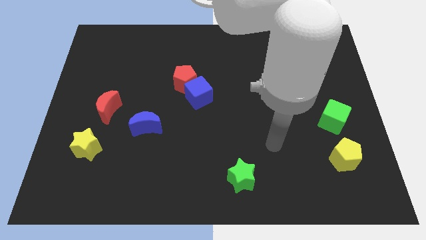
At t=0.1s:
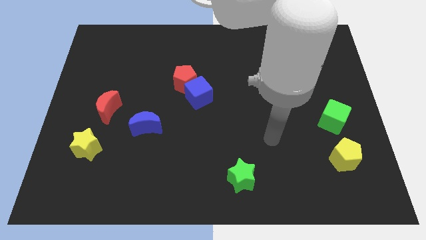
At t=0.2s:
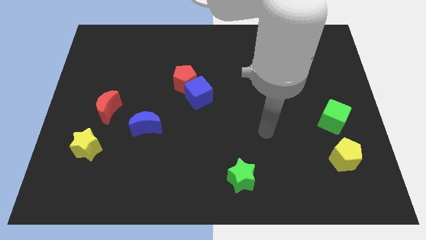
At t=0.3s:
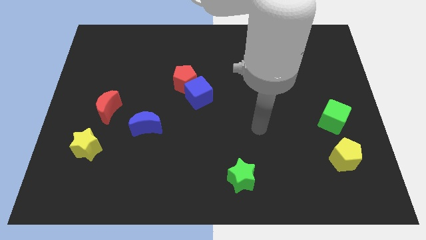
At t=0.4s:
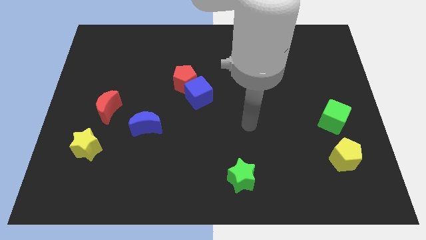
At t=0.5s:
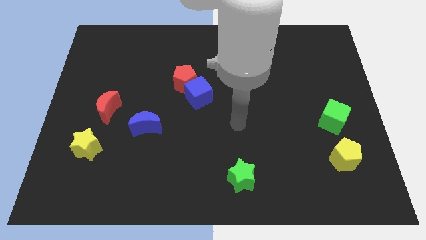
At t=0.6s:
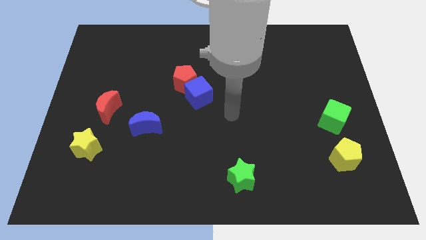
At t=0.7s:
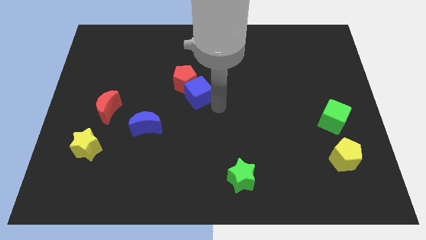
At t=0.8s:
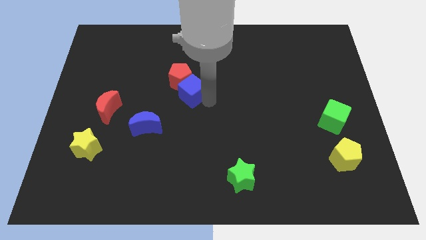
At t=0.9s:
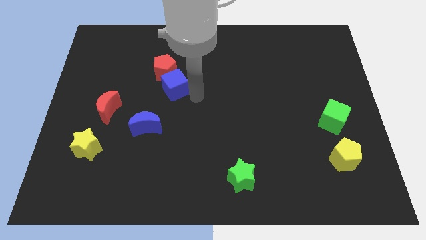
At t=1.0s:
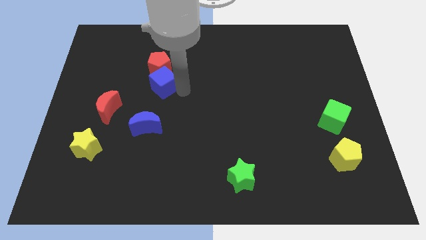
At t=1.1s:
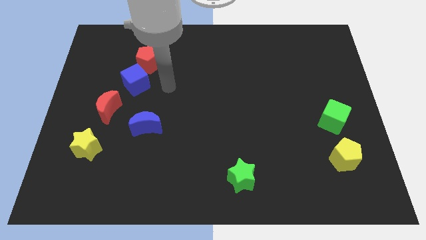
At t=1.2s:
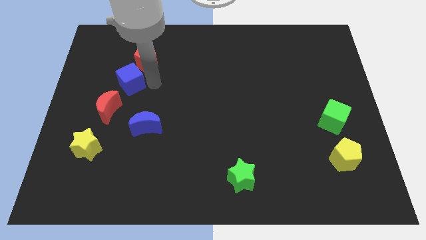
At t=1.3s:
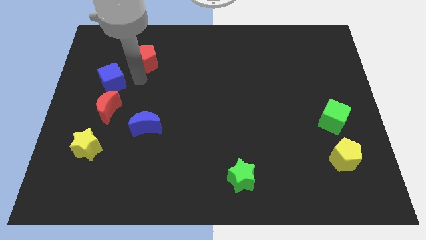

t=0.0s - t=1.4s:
move the red pentagon away from the blue cube

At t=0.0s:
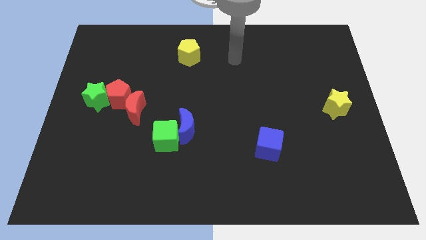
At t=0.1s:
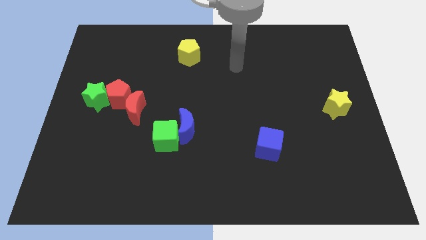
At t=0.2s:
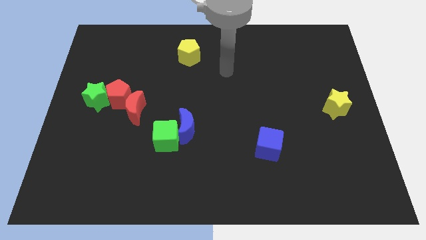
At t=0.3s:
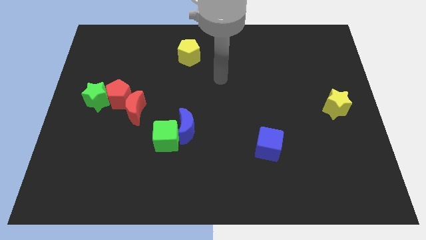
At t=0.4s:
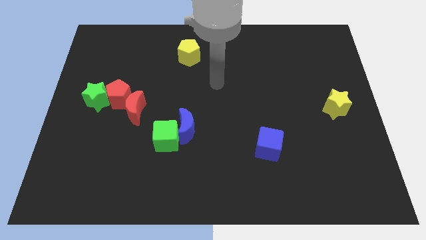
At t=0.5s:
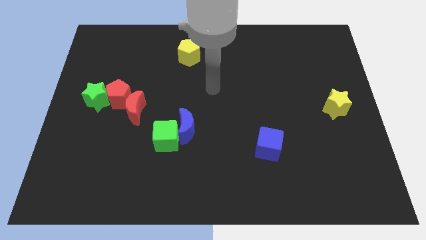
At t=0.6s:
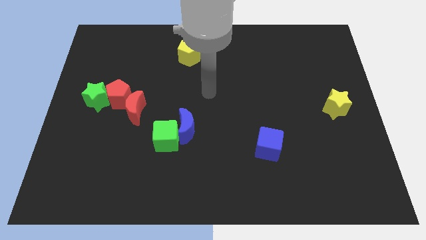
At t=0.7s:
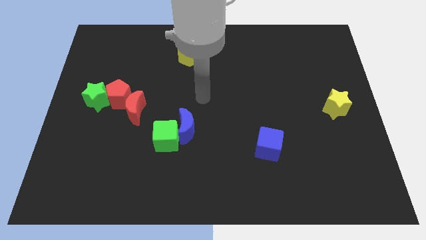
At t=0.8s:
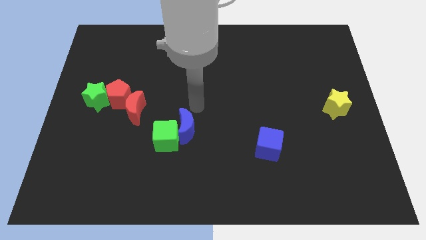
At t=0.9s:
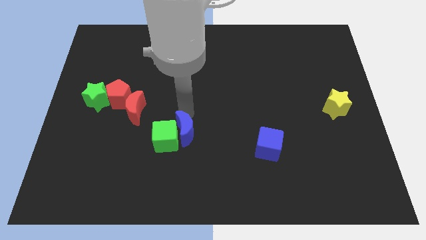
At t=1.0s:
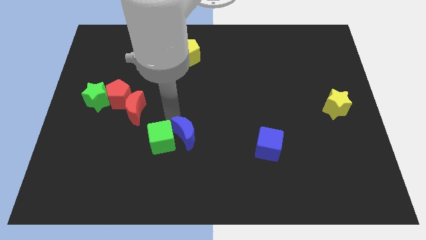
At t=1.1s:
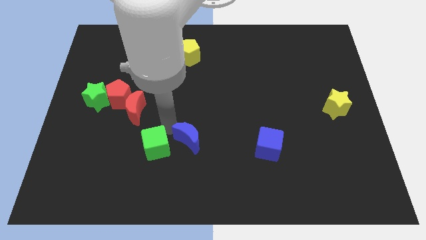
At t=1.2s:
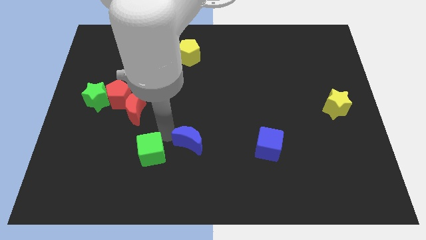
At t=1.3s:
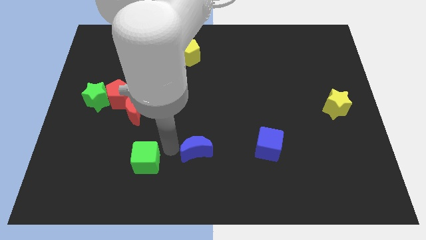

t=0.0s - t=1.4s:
pull the blue moon apart from the green cube

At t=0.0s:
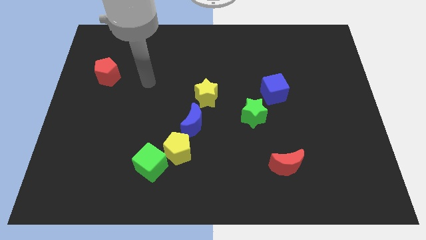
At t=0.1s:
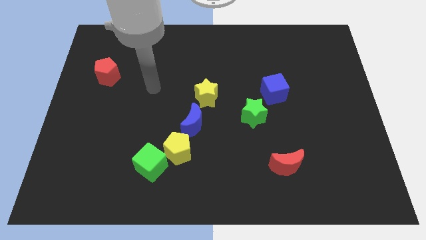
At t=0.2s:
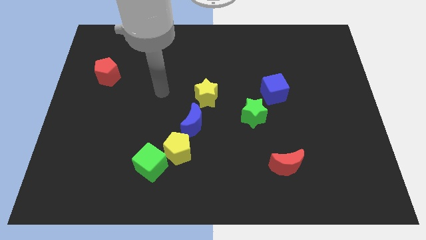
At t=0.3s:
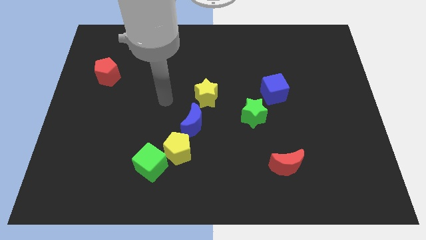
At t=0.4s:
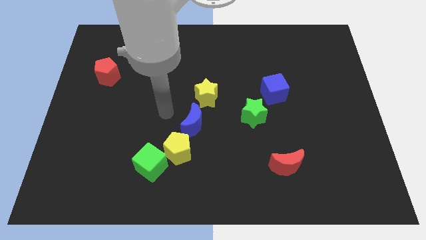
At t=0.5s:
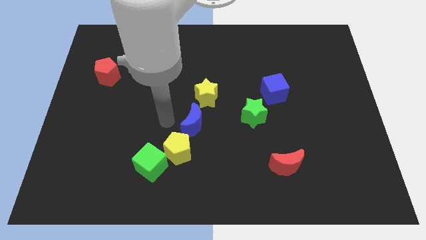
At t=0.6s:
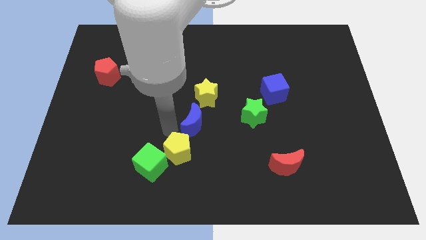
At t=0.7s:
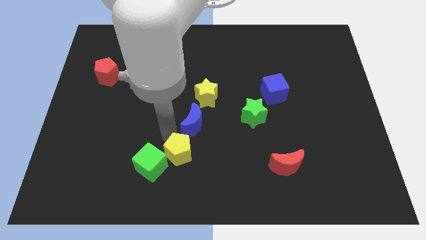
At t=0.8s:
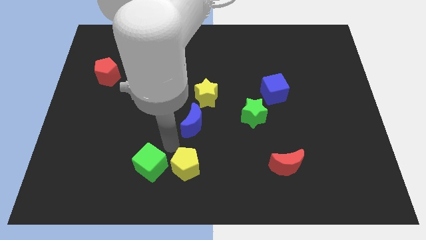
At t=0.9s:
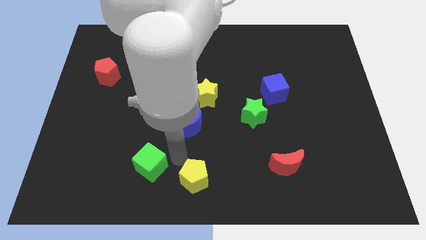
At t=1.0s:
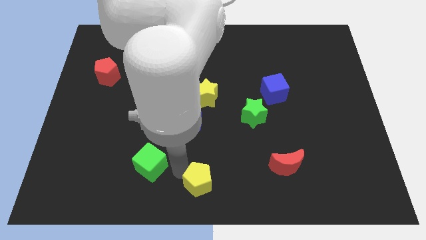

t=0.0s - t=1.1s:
pull the green cube apart from the yellow pentagon

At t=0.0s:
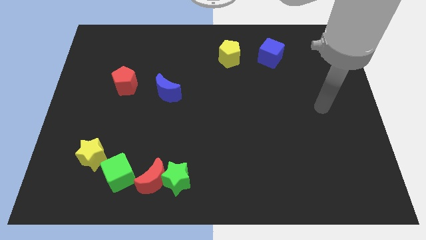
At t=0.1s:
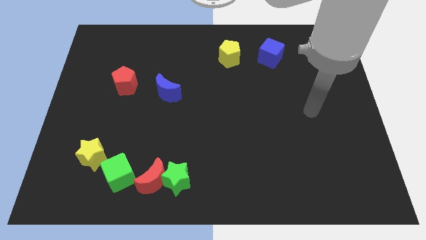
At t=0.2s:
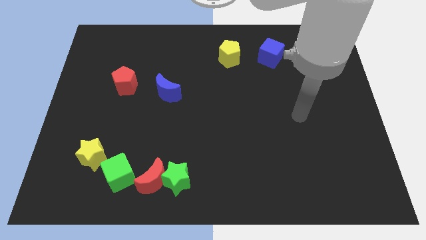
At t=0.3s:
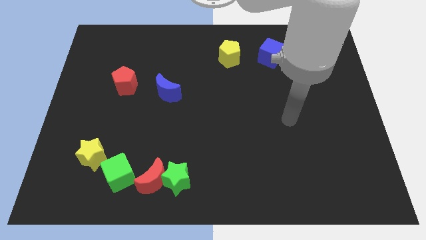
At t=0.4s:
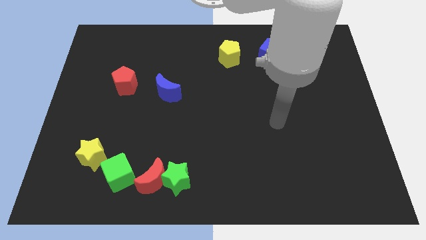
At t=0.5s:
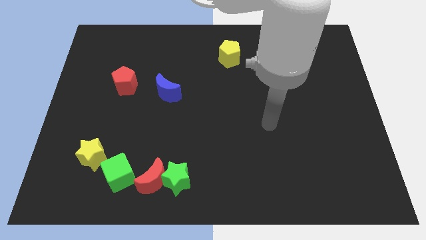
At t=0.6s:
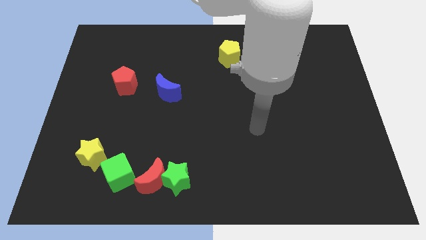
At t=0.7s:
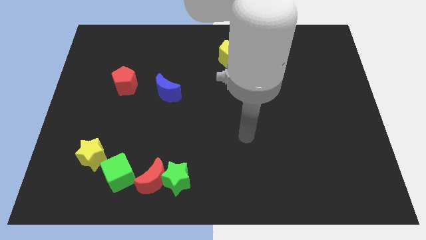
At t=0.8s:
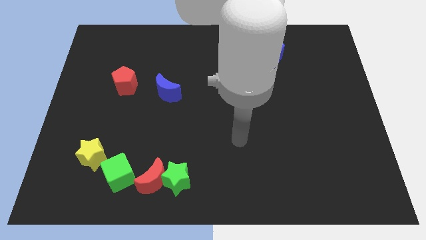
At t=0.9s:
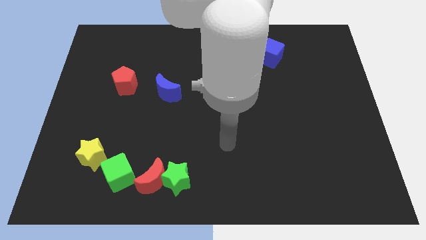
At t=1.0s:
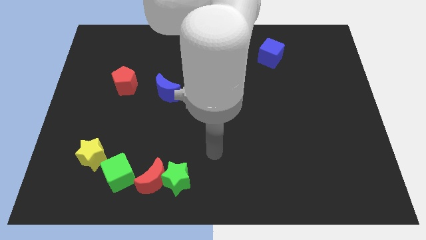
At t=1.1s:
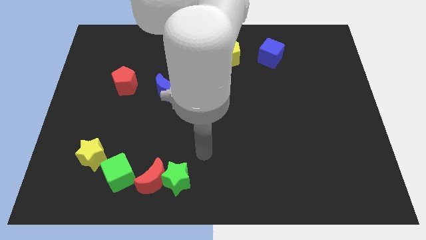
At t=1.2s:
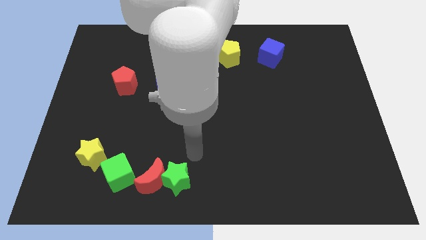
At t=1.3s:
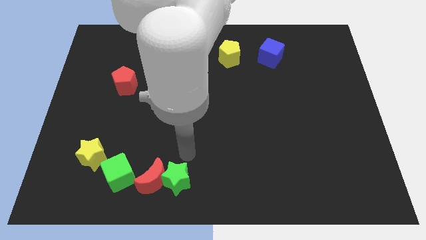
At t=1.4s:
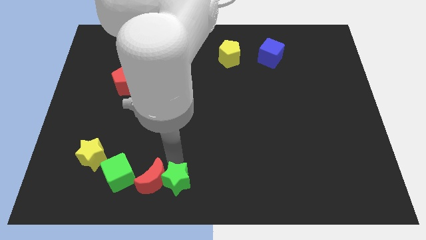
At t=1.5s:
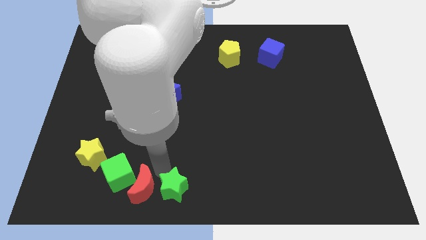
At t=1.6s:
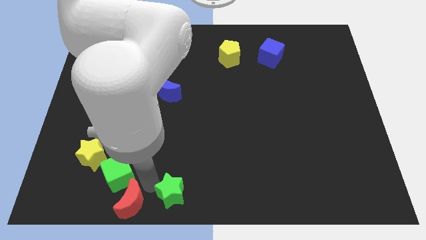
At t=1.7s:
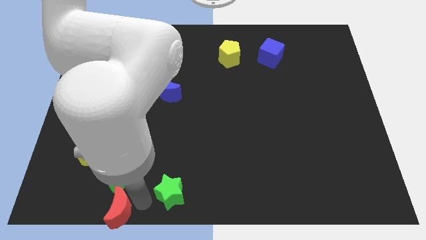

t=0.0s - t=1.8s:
move the green star away from the red moon

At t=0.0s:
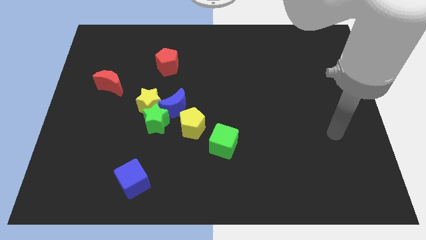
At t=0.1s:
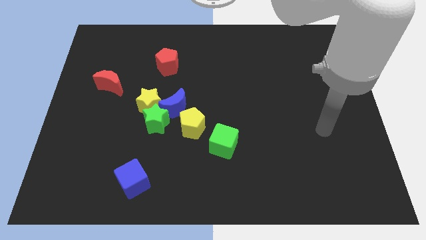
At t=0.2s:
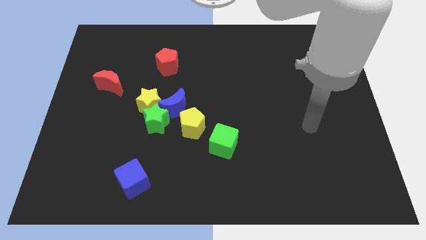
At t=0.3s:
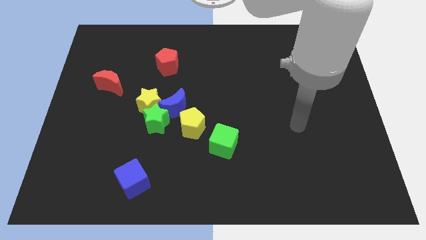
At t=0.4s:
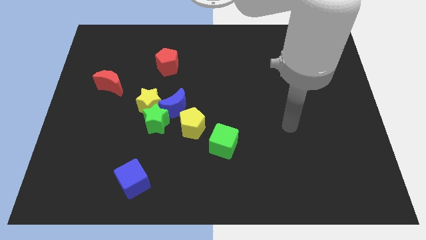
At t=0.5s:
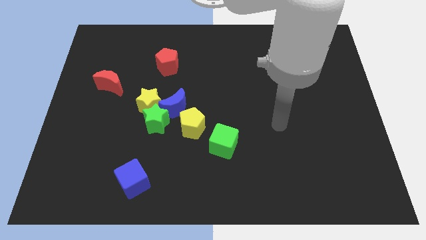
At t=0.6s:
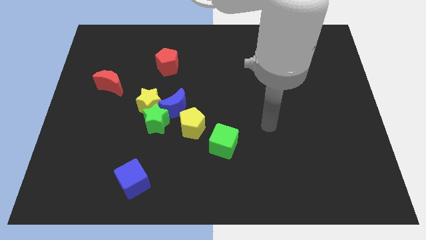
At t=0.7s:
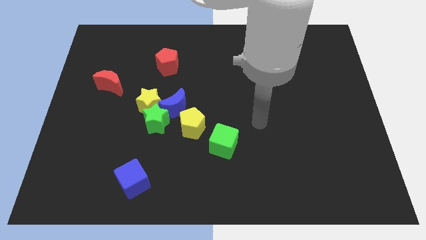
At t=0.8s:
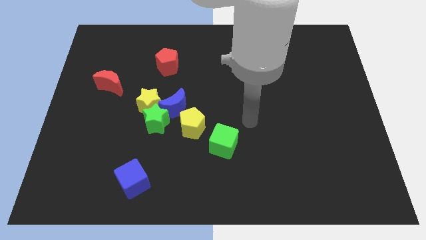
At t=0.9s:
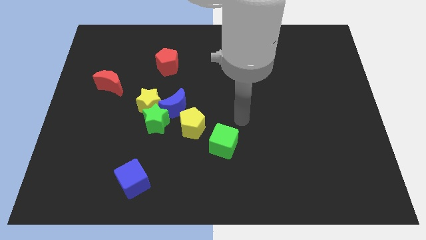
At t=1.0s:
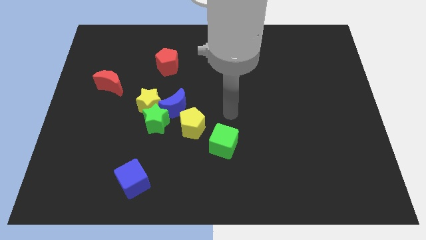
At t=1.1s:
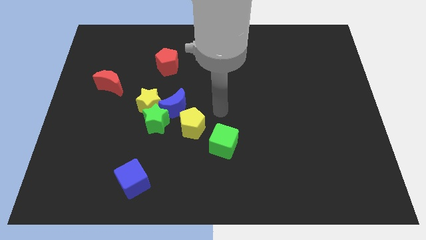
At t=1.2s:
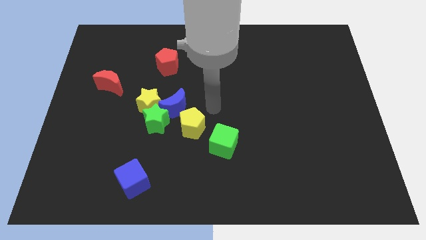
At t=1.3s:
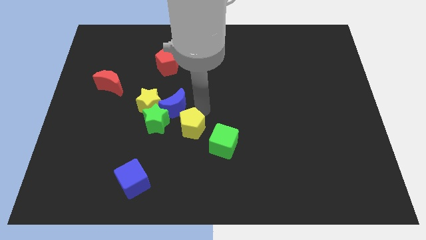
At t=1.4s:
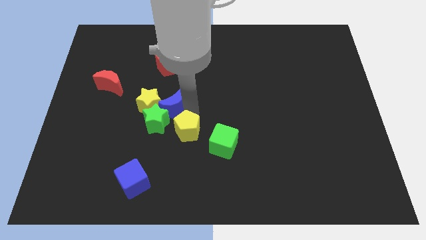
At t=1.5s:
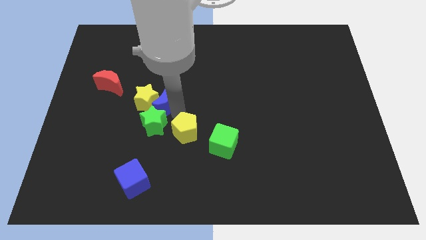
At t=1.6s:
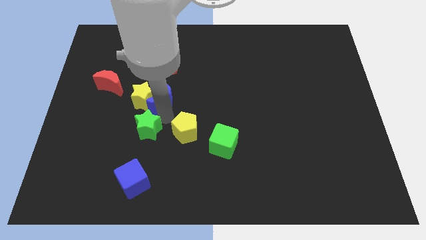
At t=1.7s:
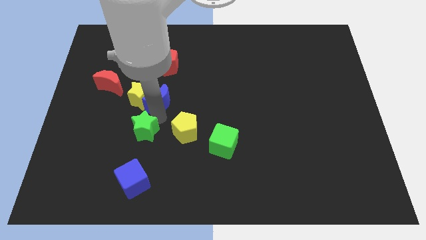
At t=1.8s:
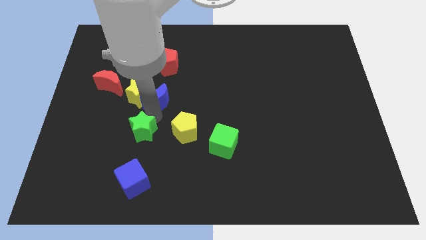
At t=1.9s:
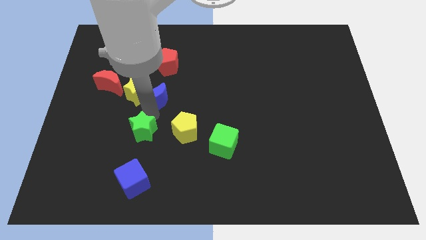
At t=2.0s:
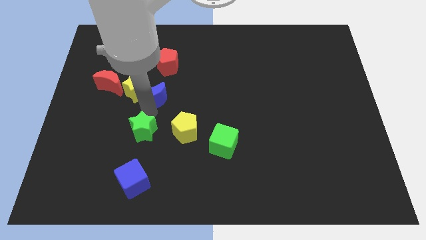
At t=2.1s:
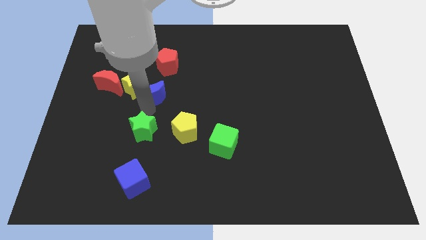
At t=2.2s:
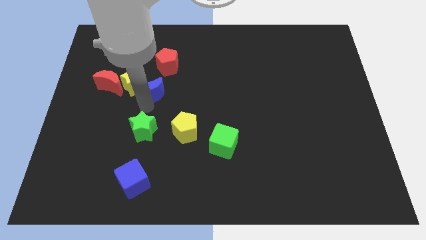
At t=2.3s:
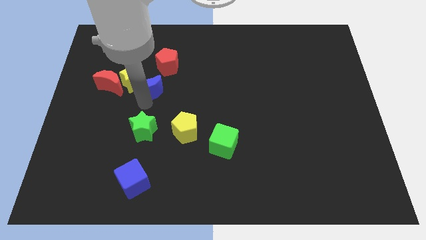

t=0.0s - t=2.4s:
move the yellow star away from the green star and blue moon

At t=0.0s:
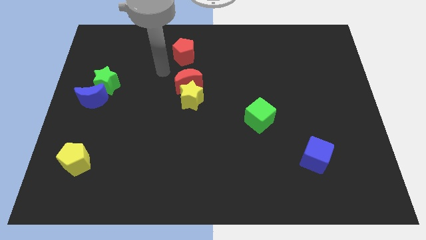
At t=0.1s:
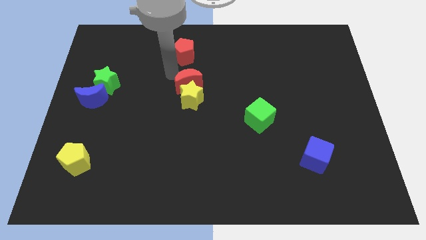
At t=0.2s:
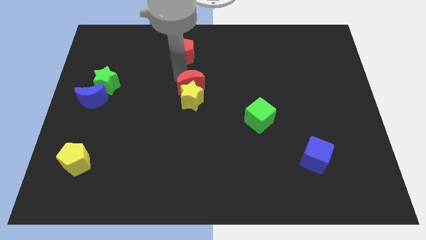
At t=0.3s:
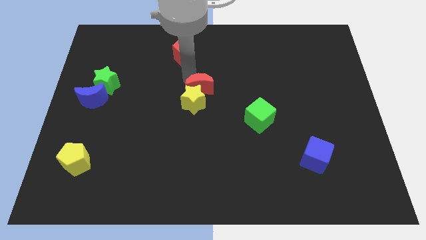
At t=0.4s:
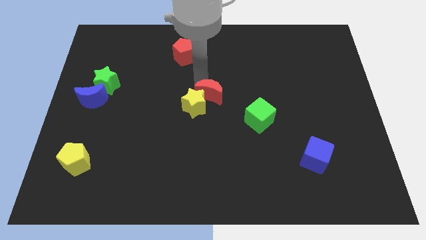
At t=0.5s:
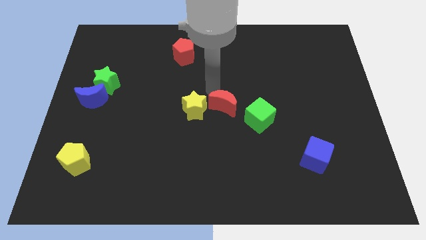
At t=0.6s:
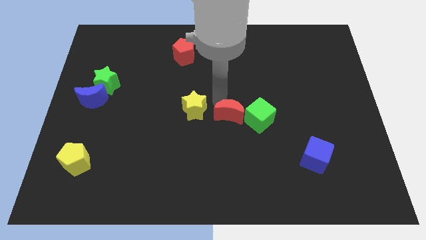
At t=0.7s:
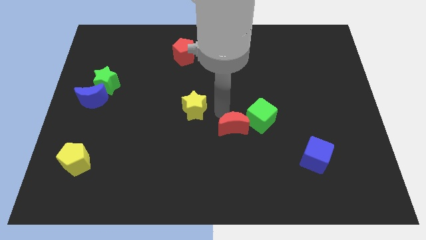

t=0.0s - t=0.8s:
move the yellow star away from the red moon

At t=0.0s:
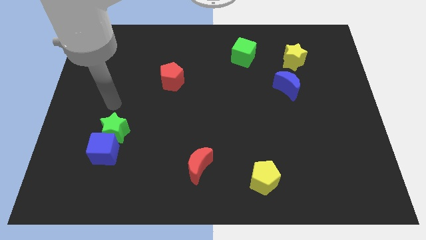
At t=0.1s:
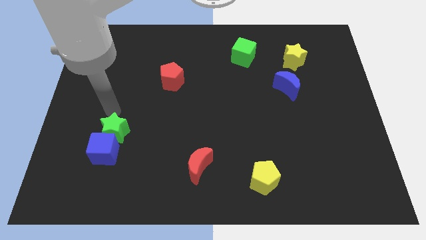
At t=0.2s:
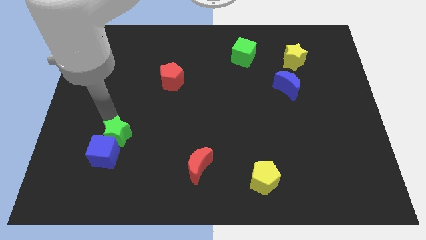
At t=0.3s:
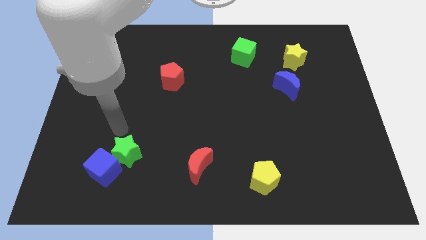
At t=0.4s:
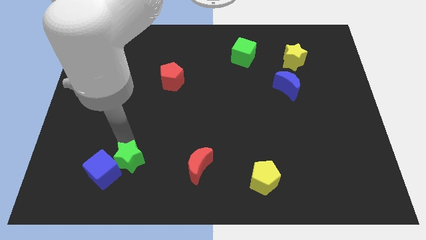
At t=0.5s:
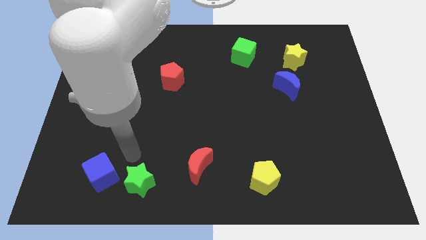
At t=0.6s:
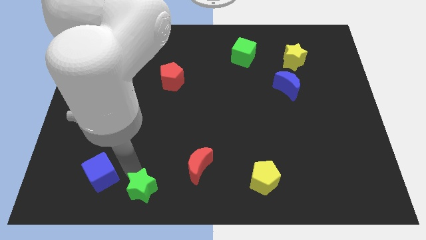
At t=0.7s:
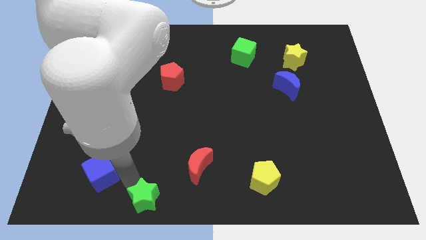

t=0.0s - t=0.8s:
pull the blue cube apart from the green star
